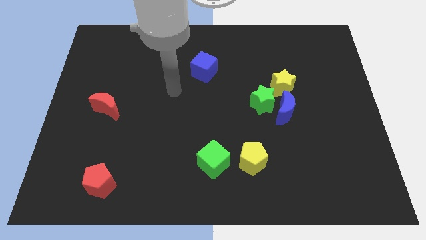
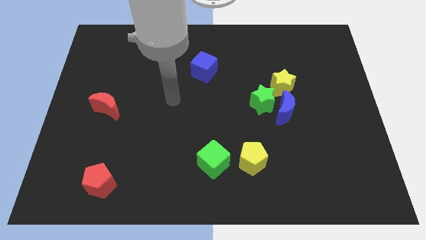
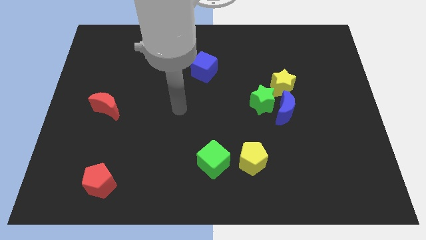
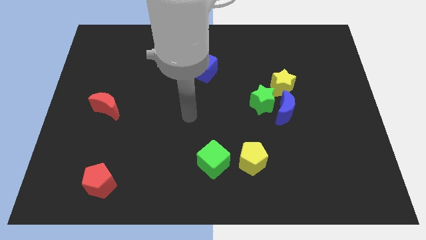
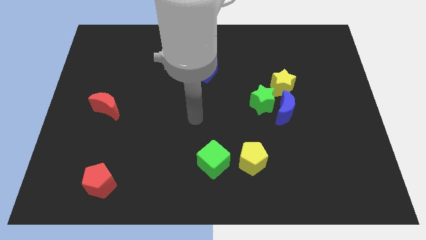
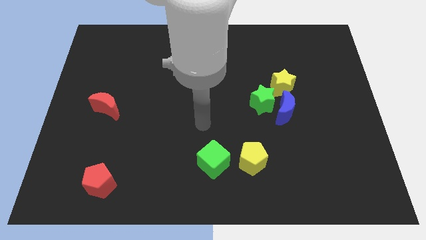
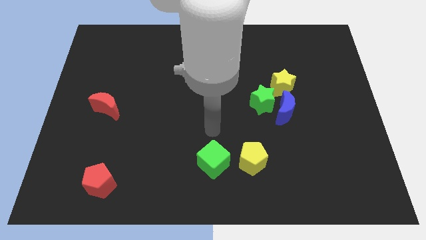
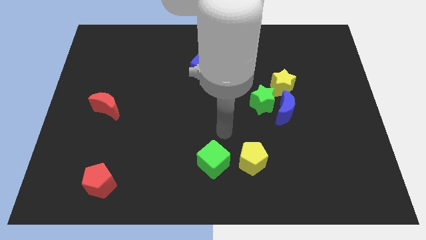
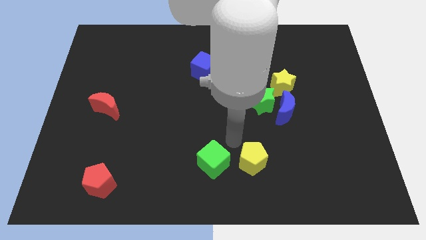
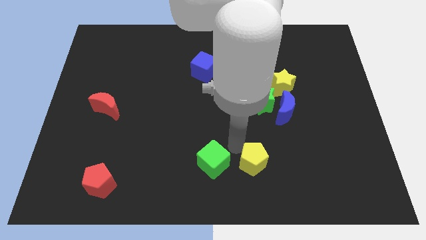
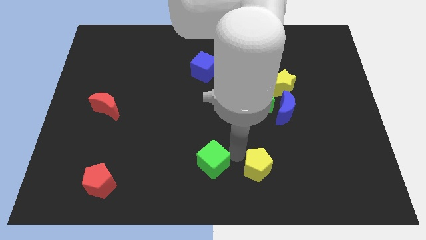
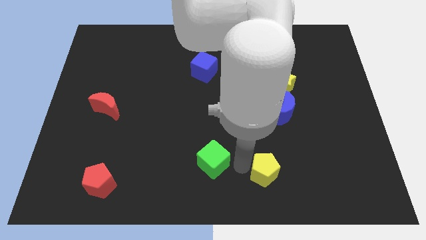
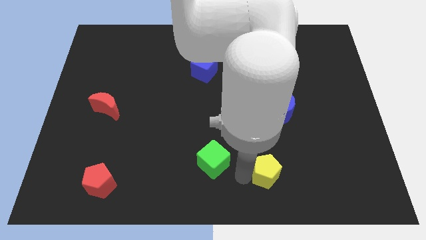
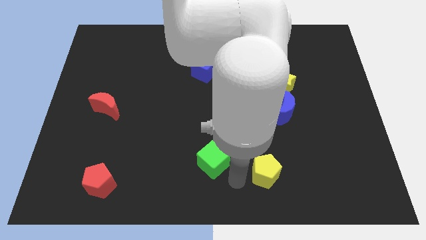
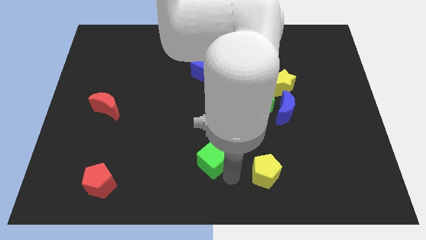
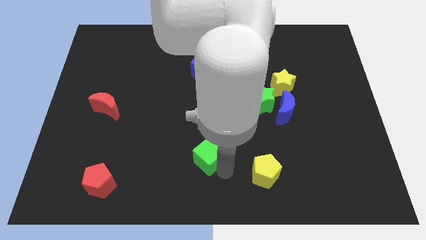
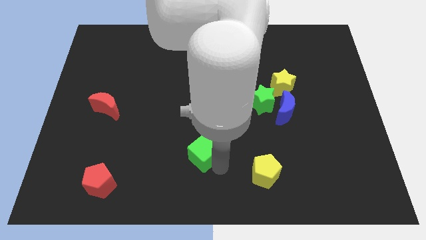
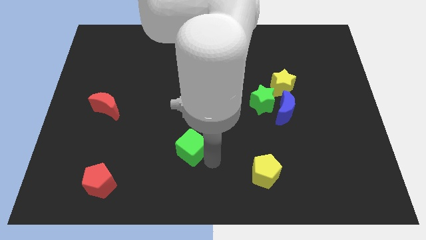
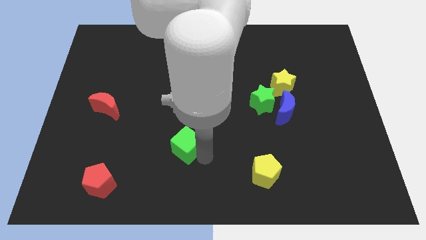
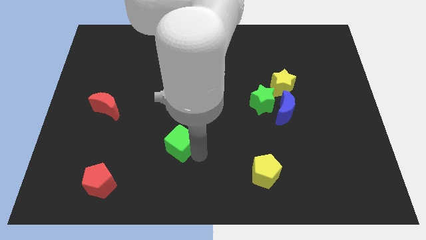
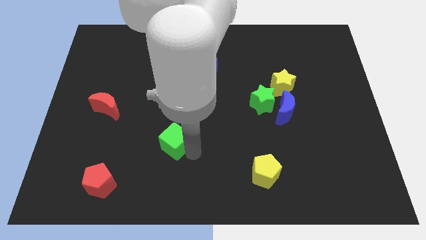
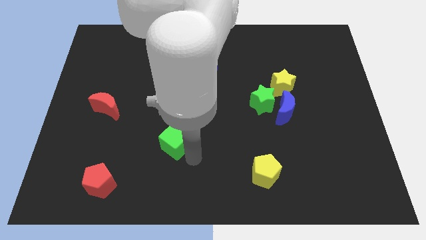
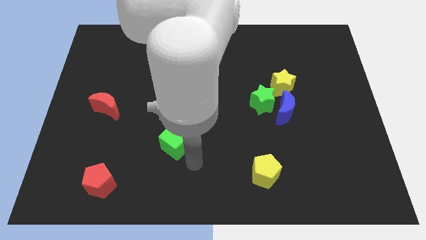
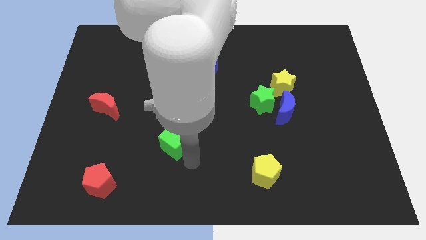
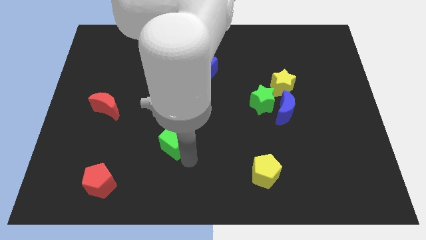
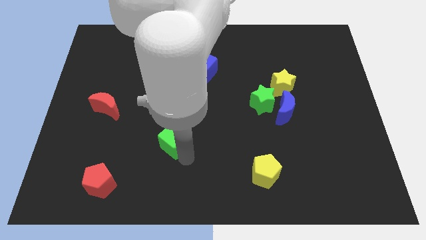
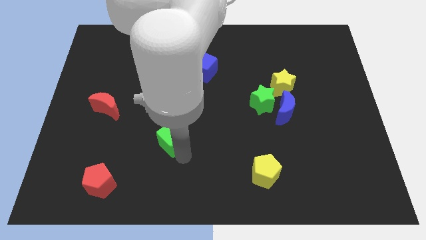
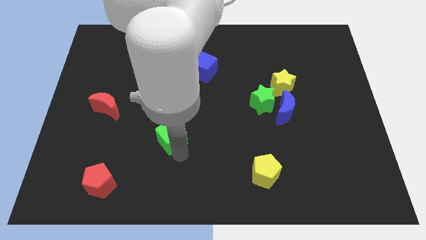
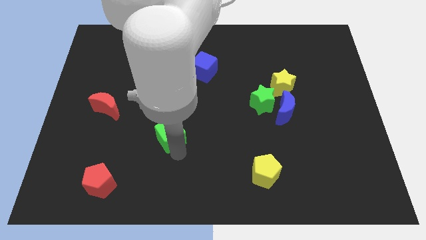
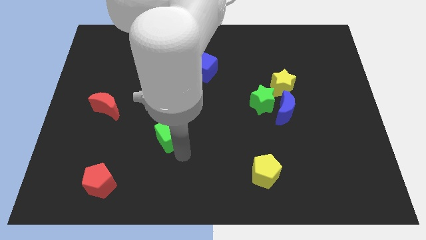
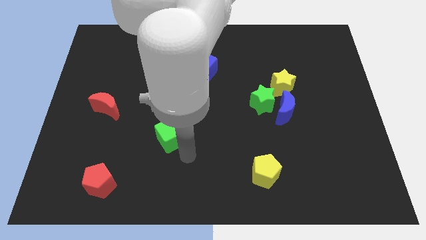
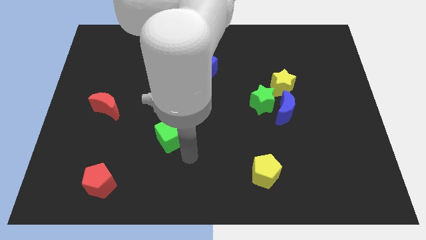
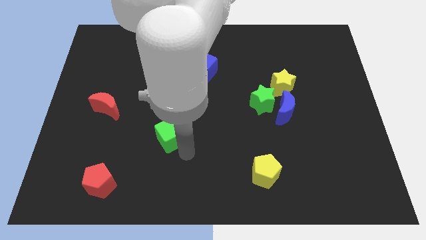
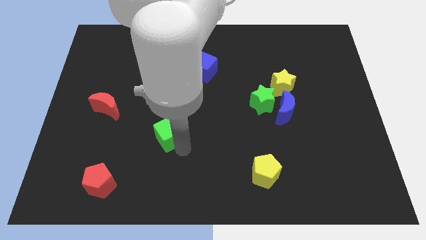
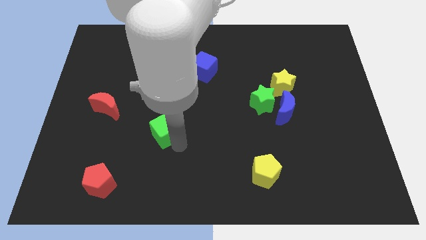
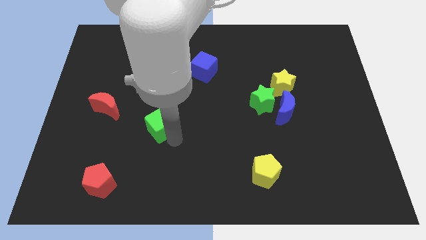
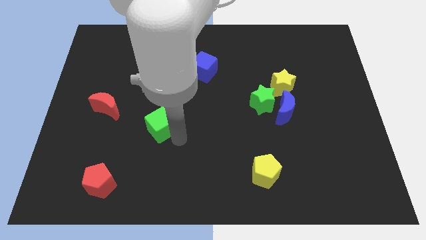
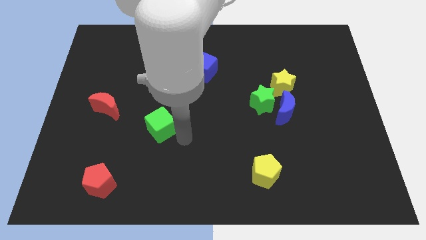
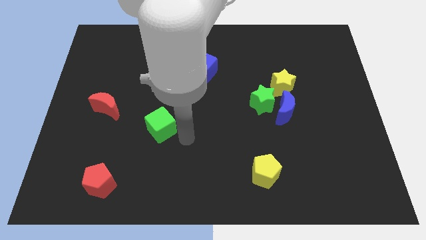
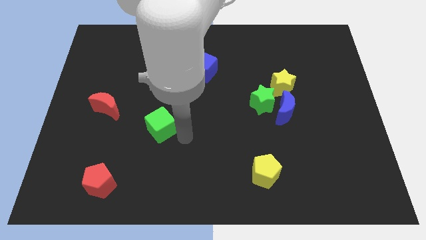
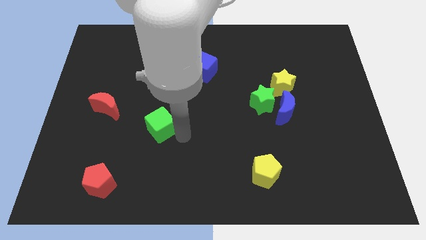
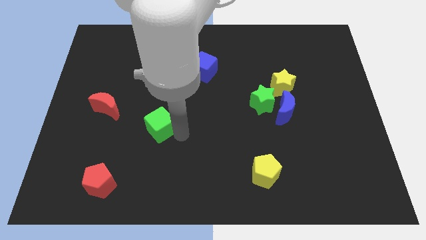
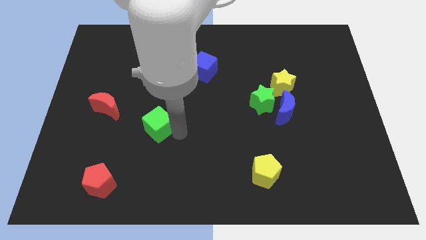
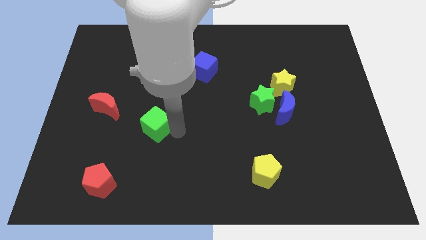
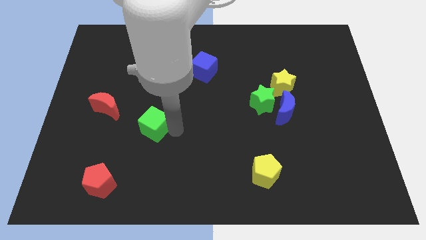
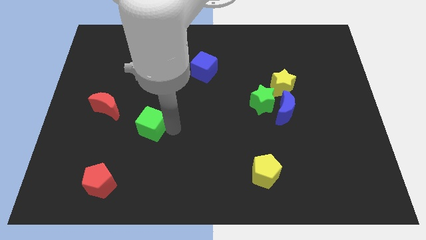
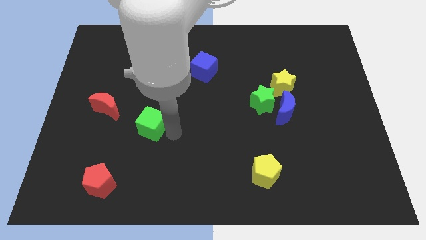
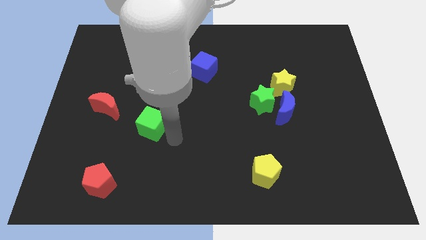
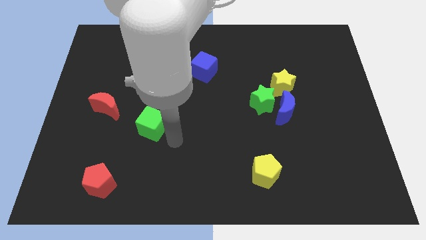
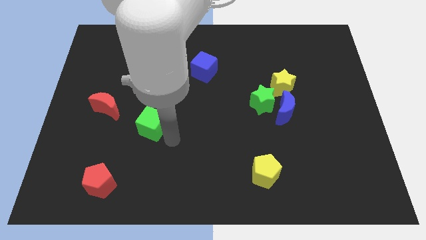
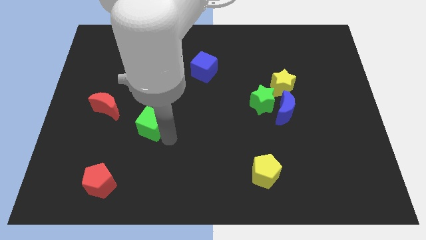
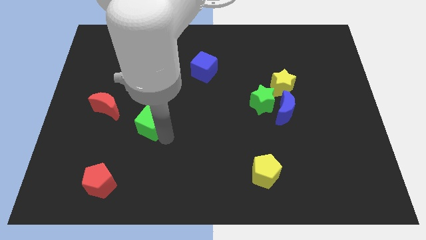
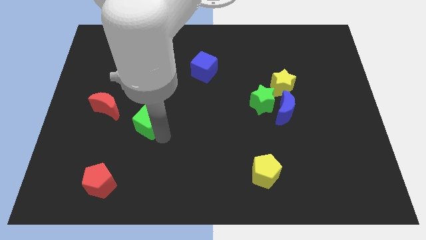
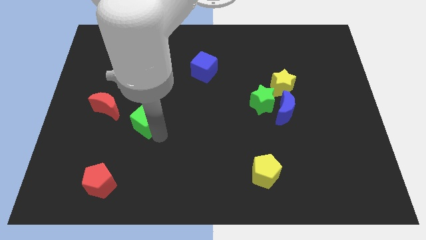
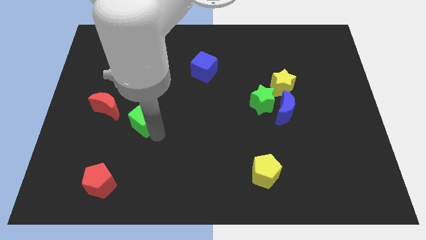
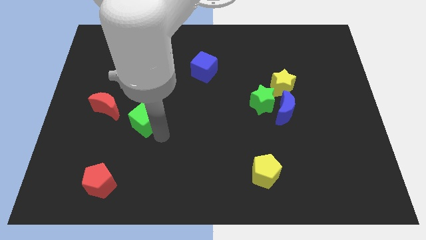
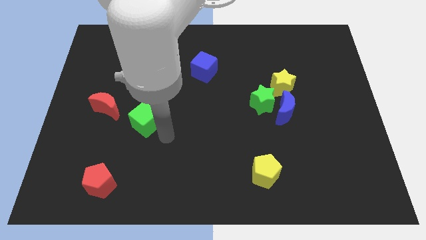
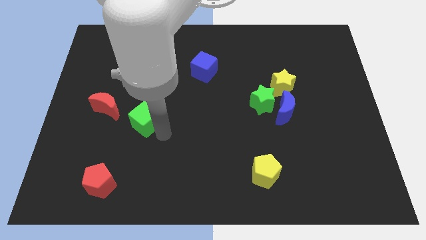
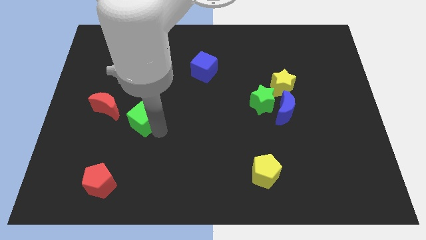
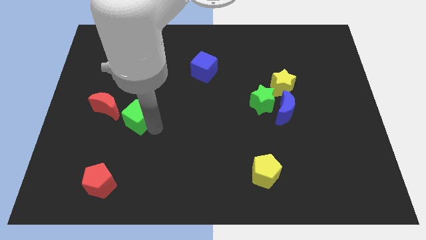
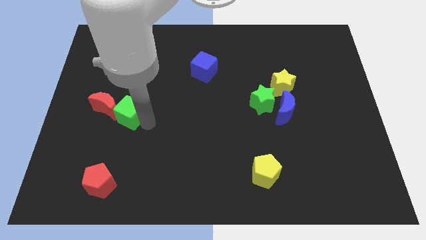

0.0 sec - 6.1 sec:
push the green cube to the red moon

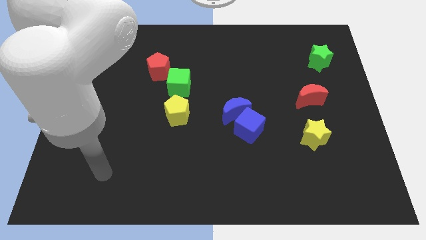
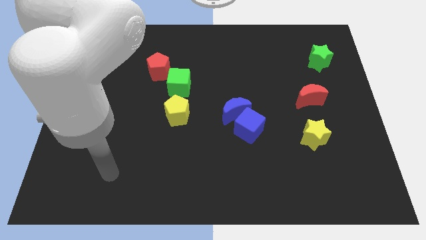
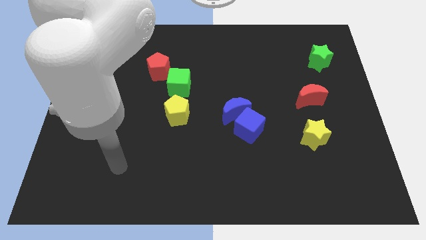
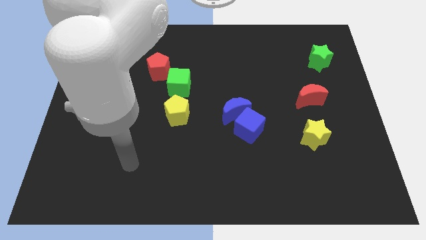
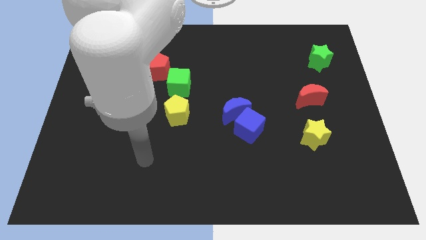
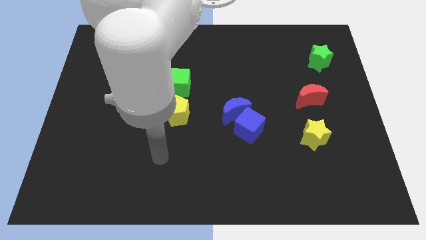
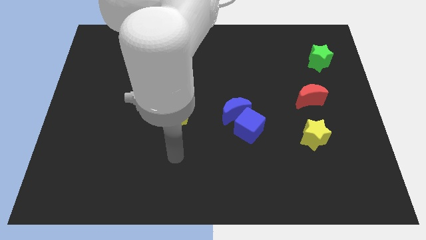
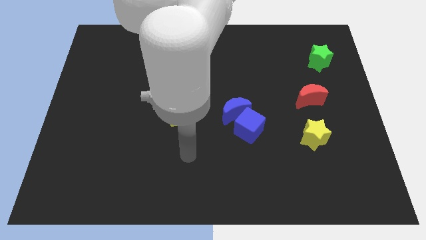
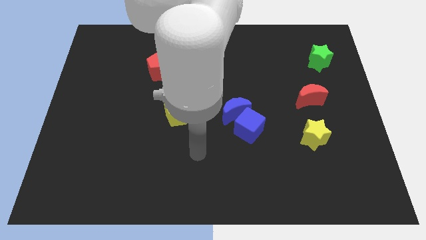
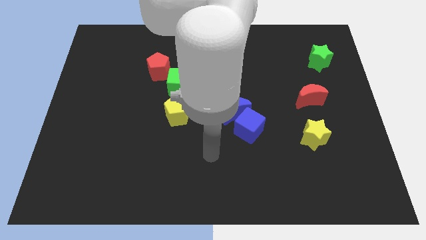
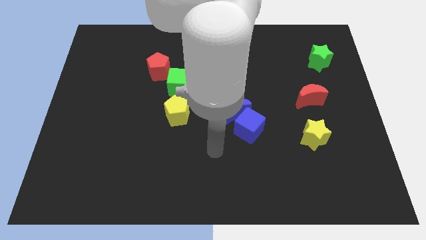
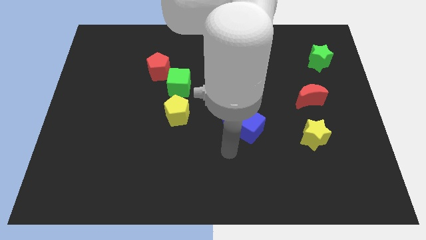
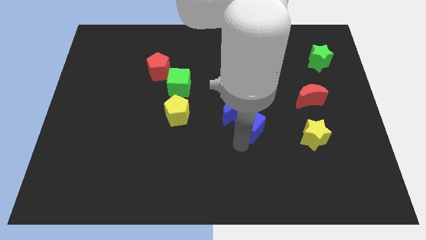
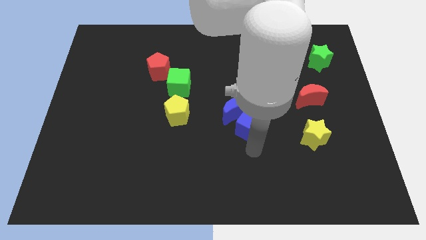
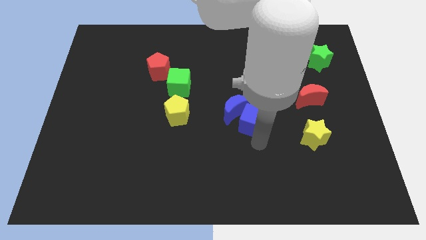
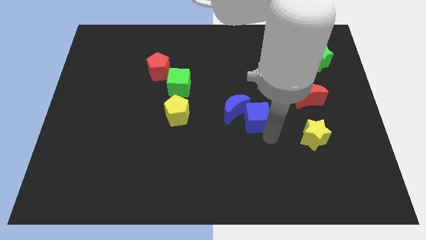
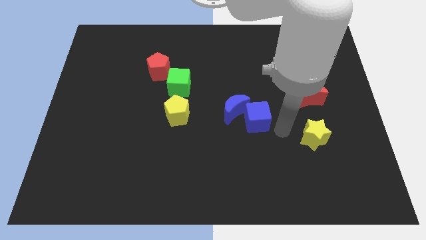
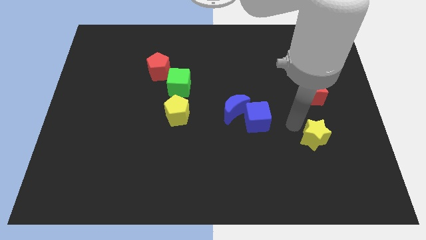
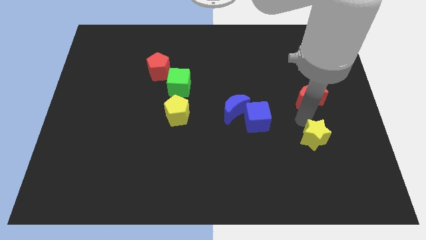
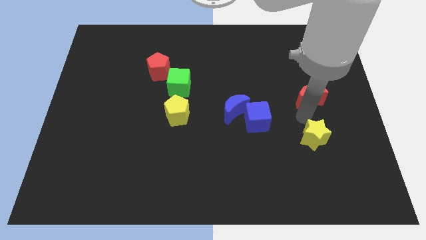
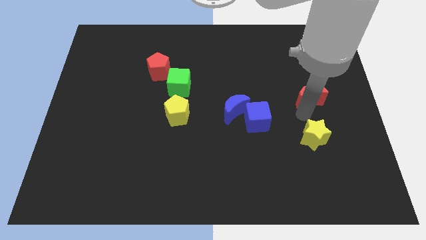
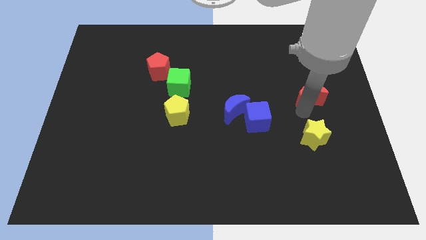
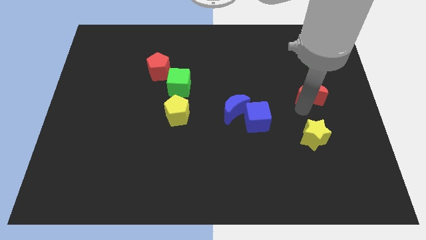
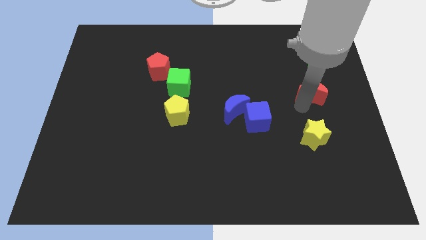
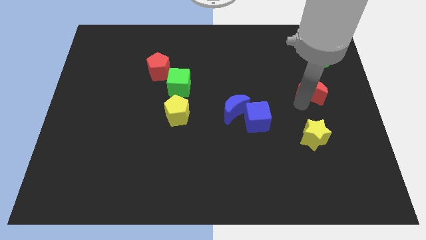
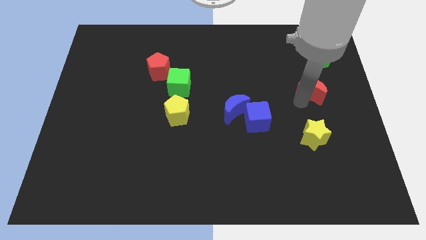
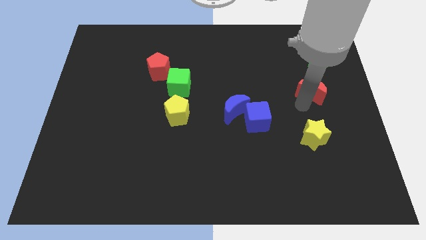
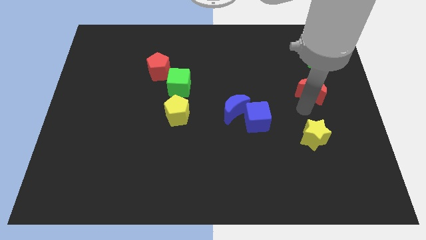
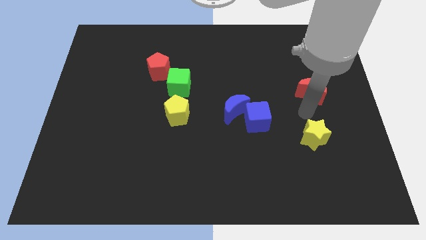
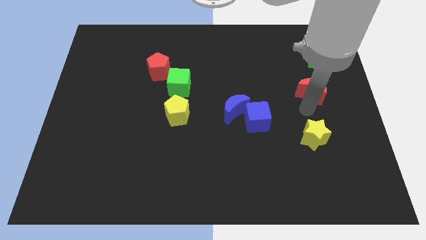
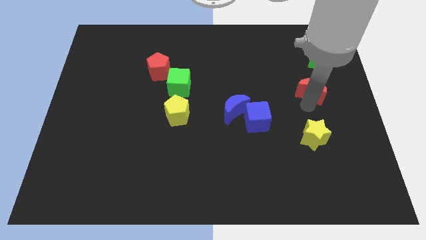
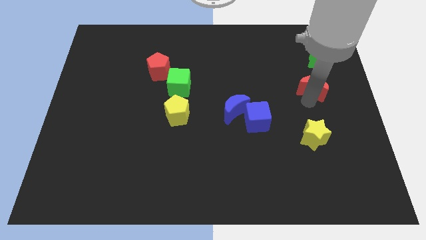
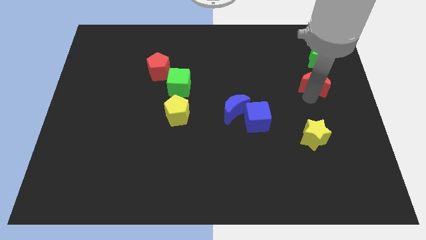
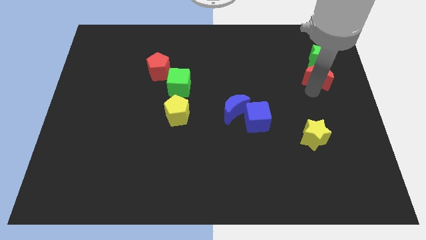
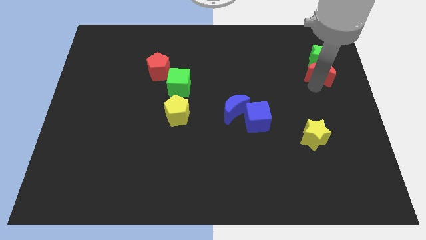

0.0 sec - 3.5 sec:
slide the red moon towards the green star
